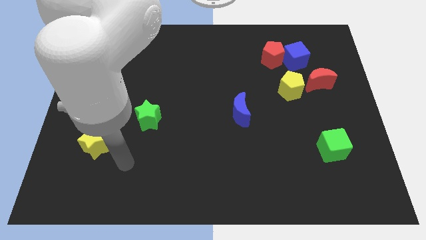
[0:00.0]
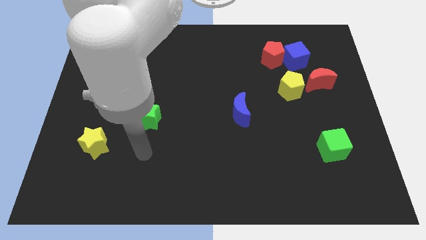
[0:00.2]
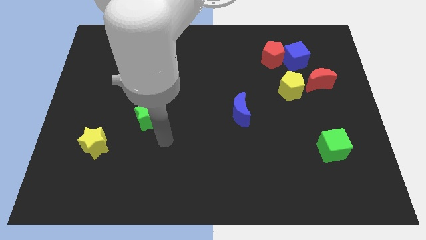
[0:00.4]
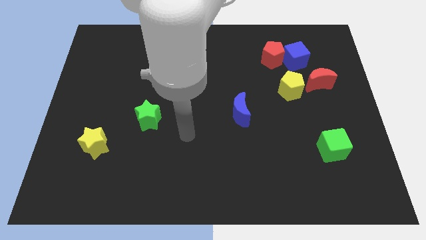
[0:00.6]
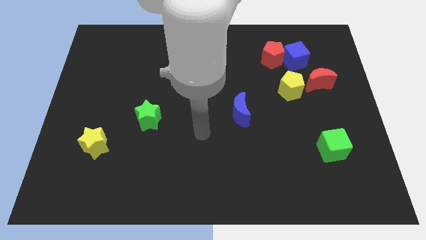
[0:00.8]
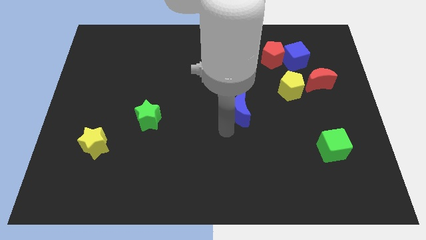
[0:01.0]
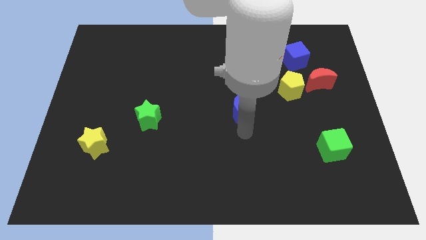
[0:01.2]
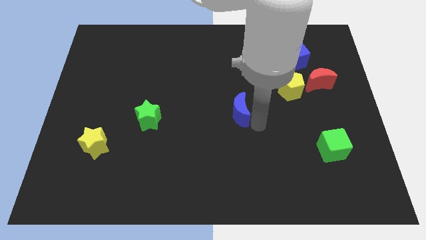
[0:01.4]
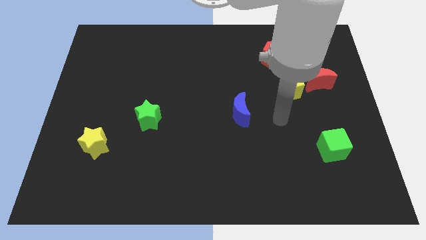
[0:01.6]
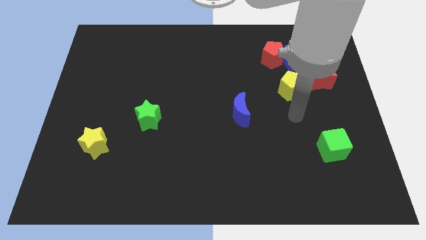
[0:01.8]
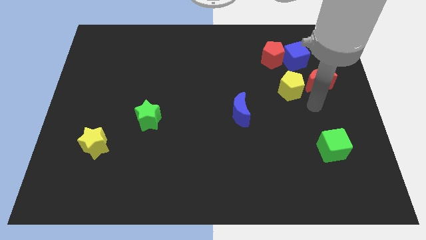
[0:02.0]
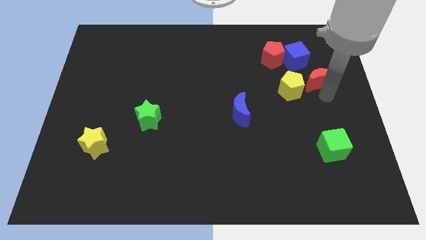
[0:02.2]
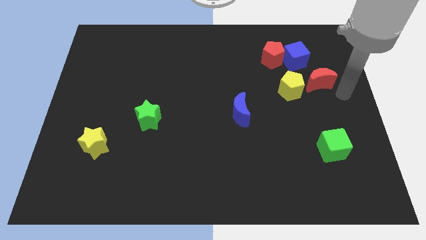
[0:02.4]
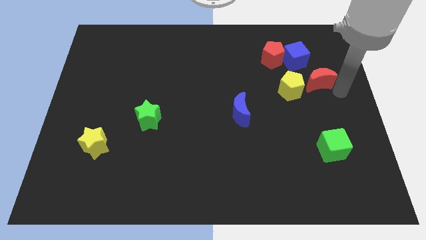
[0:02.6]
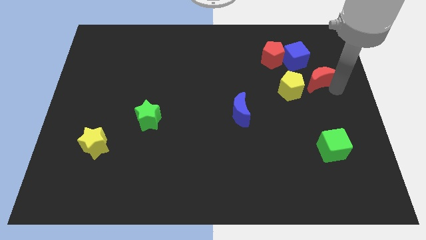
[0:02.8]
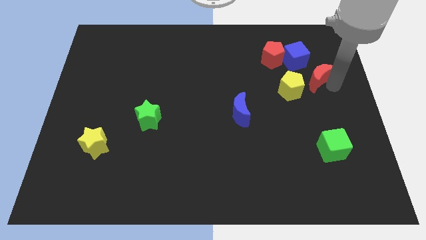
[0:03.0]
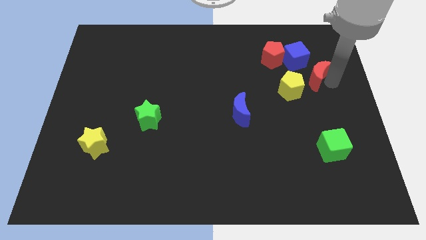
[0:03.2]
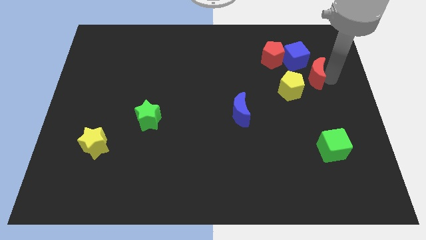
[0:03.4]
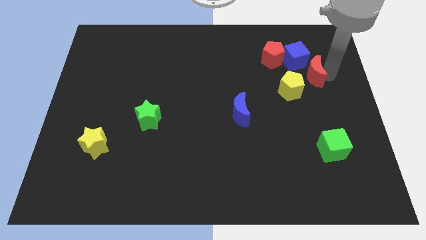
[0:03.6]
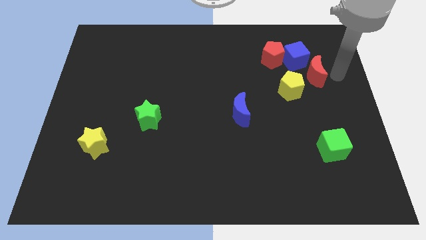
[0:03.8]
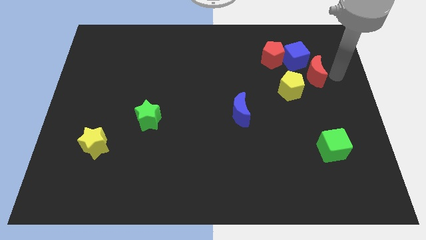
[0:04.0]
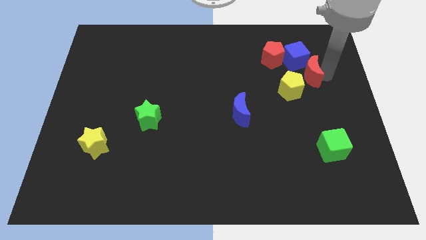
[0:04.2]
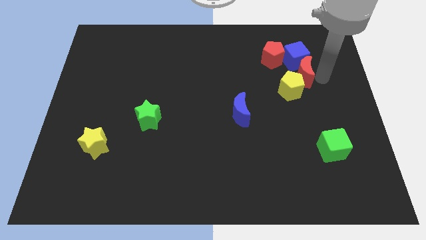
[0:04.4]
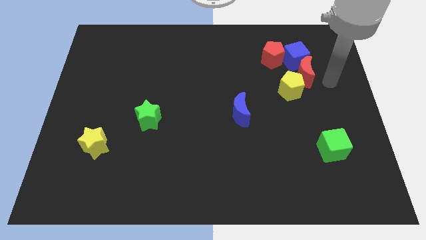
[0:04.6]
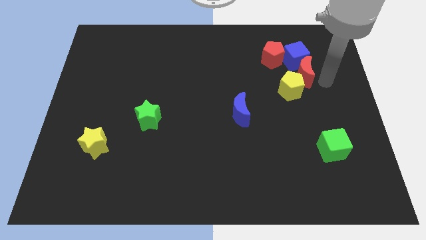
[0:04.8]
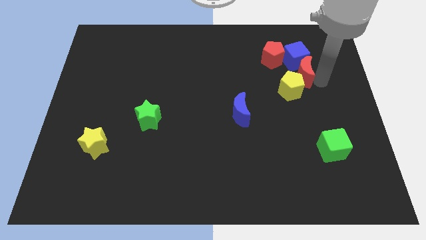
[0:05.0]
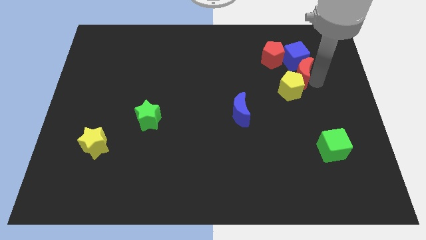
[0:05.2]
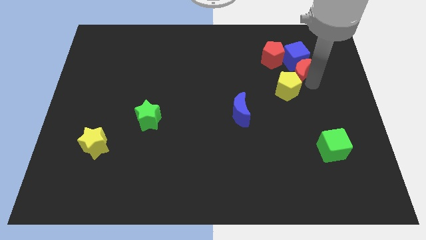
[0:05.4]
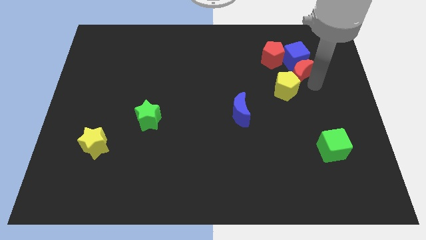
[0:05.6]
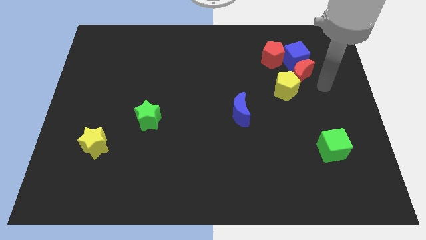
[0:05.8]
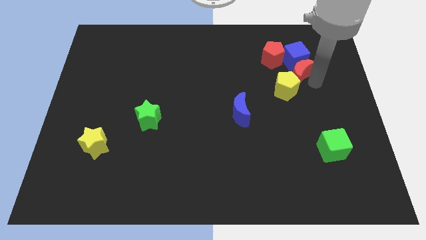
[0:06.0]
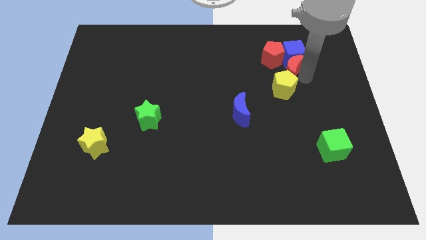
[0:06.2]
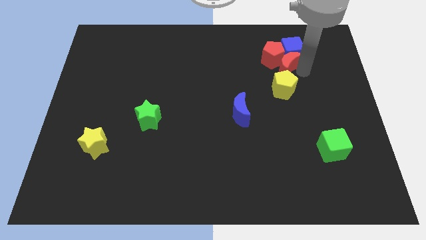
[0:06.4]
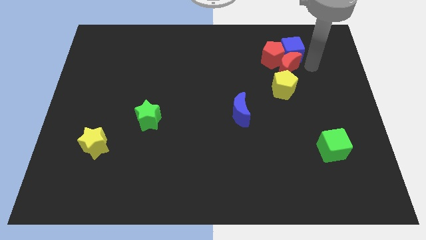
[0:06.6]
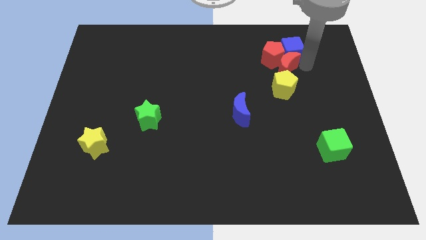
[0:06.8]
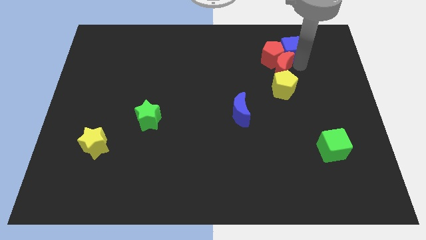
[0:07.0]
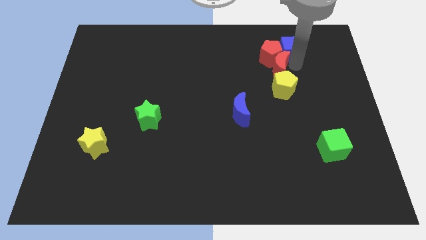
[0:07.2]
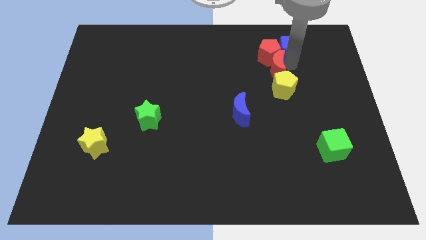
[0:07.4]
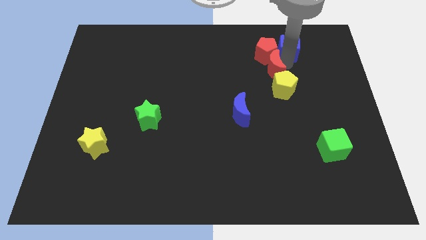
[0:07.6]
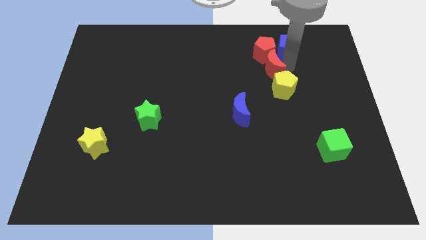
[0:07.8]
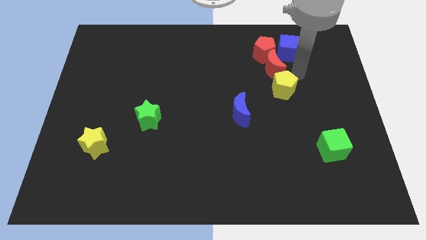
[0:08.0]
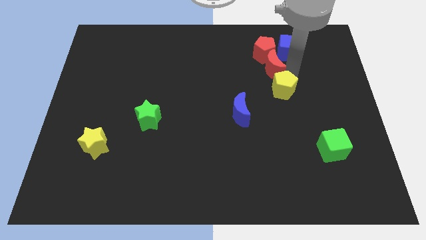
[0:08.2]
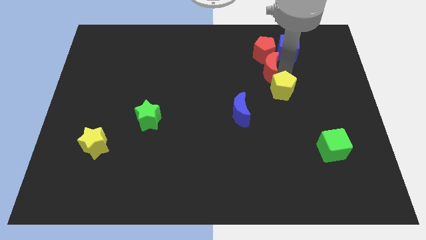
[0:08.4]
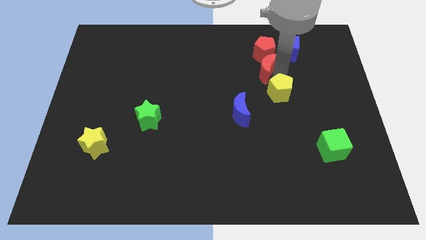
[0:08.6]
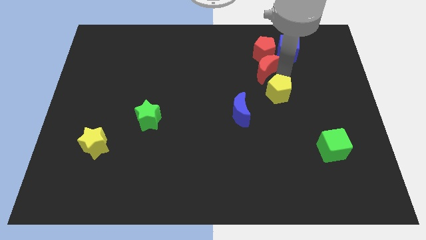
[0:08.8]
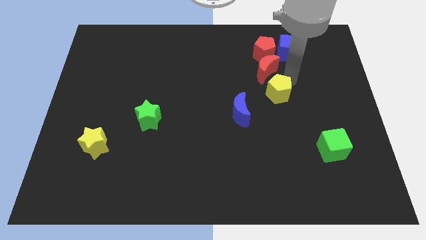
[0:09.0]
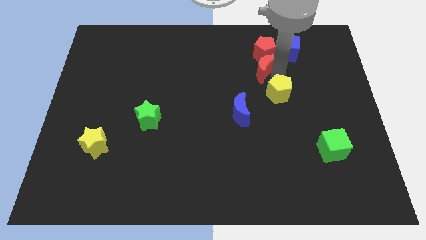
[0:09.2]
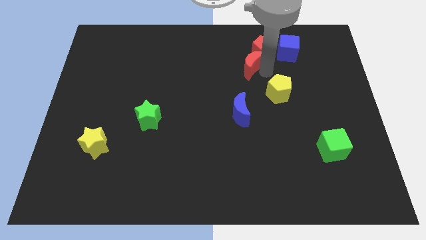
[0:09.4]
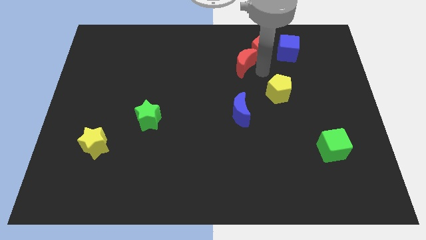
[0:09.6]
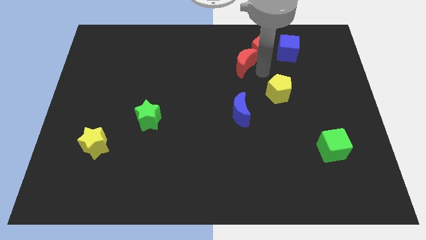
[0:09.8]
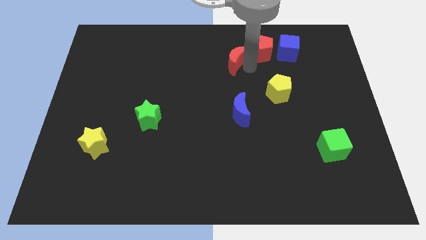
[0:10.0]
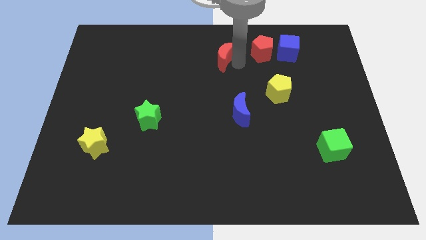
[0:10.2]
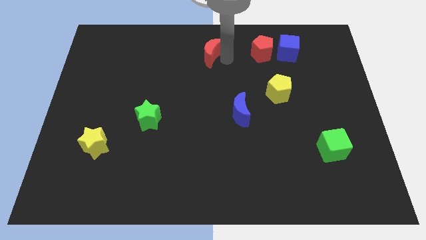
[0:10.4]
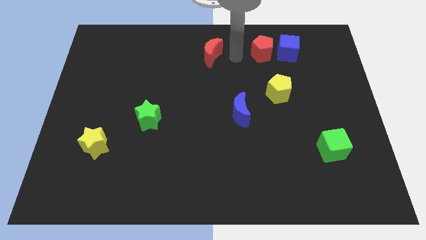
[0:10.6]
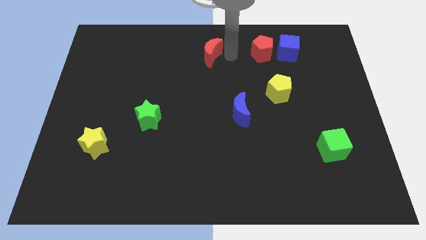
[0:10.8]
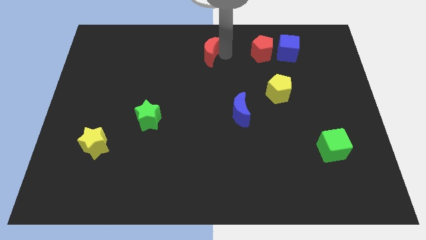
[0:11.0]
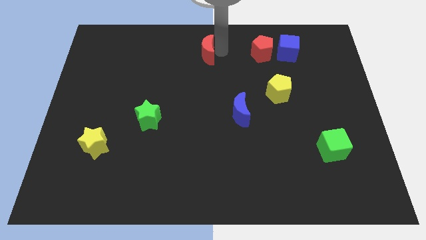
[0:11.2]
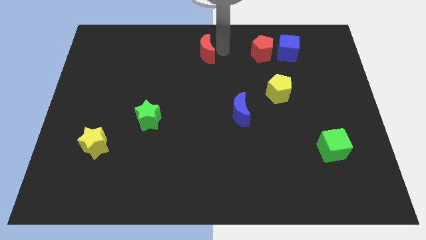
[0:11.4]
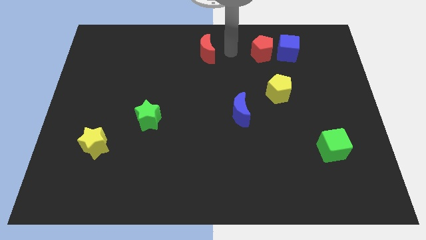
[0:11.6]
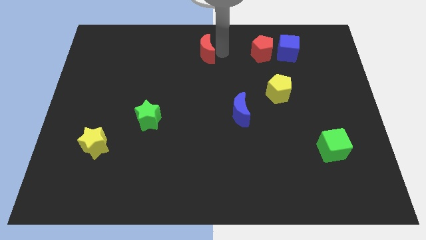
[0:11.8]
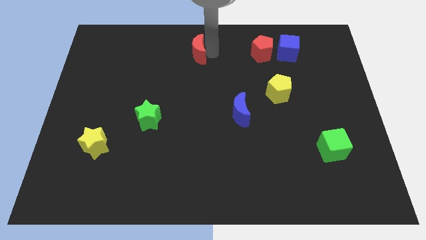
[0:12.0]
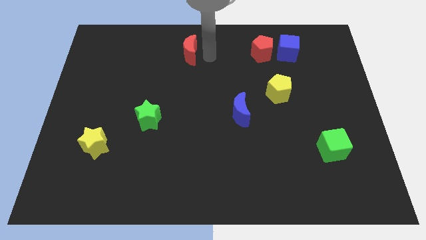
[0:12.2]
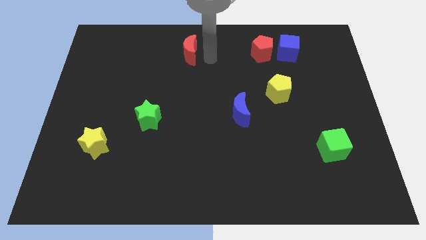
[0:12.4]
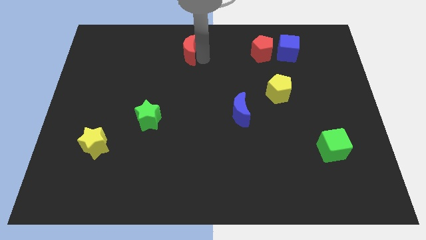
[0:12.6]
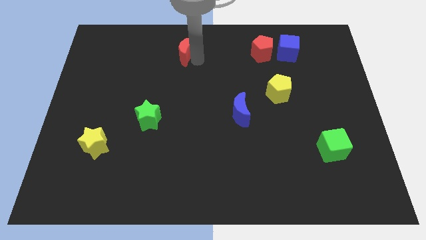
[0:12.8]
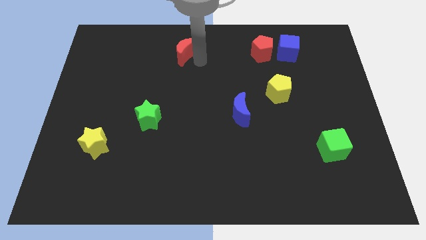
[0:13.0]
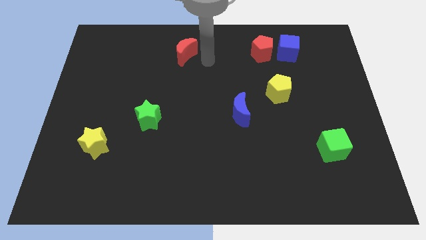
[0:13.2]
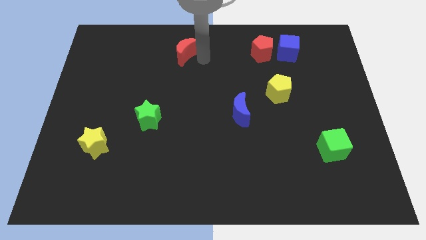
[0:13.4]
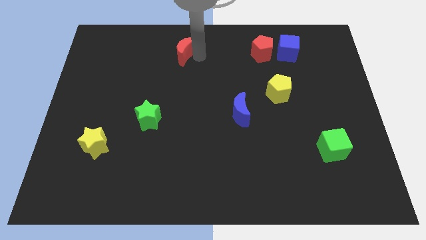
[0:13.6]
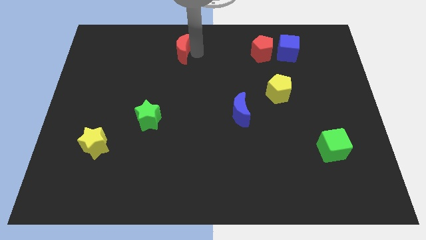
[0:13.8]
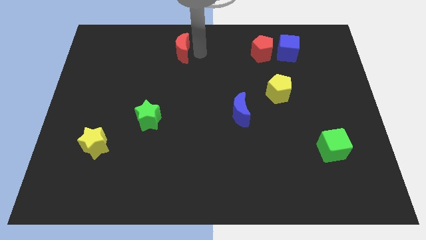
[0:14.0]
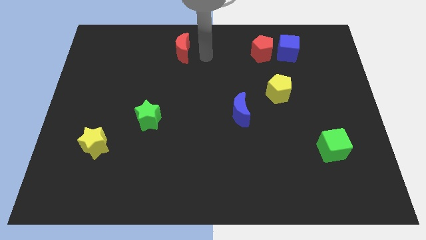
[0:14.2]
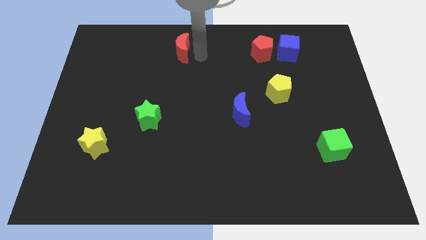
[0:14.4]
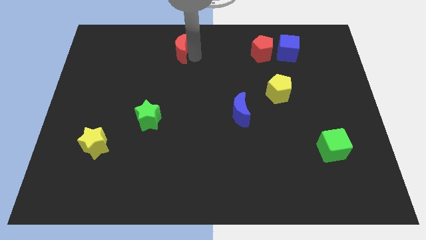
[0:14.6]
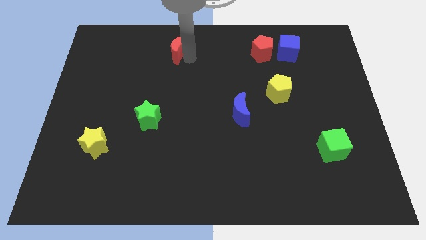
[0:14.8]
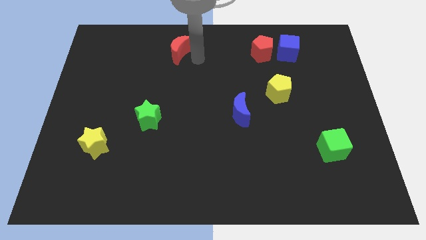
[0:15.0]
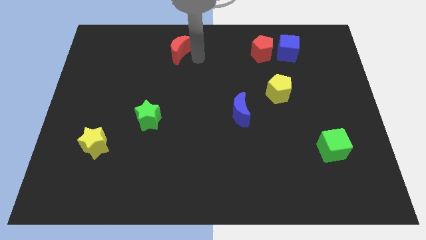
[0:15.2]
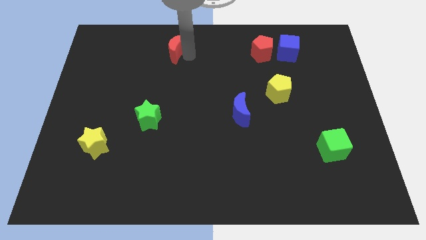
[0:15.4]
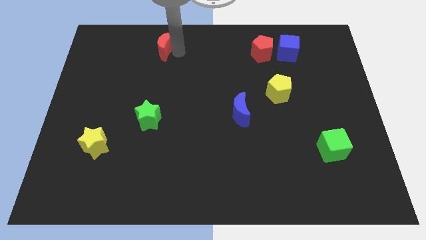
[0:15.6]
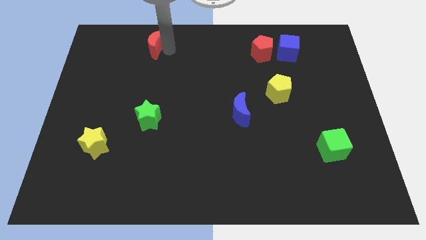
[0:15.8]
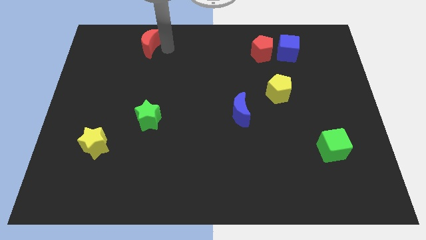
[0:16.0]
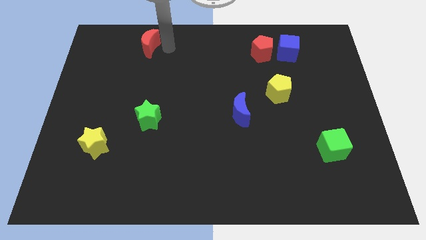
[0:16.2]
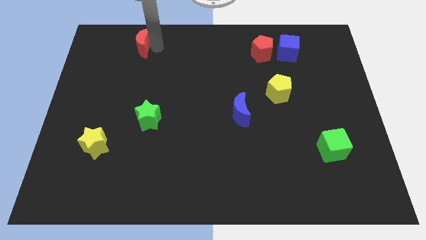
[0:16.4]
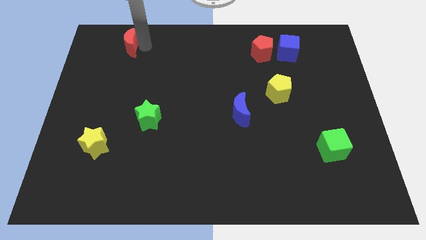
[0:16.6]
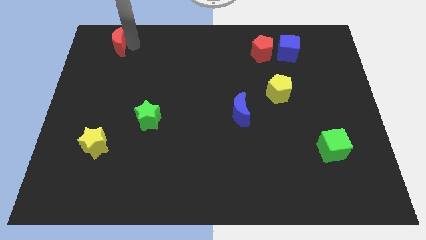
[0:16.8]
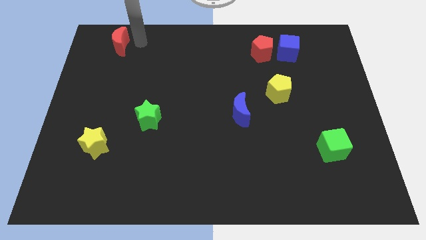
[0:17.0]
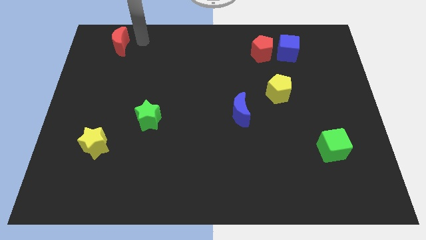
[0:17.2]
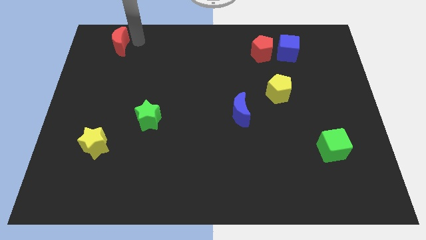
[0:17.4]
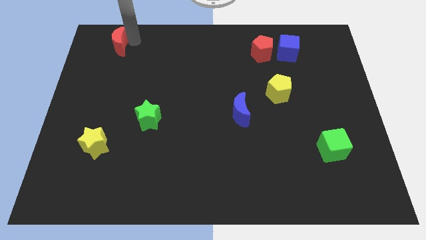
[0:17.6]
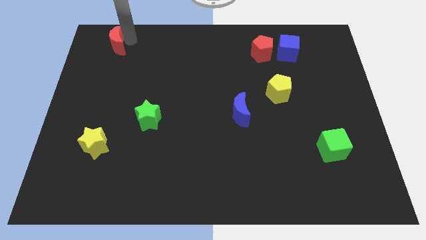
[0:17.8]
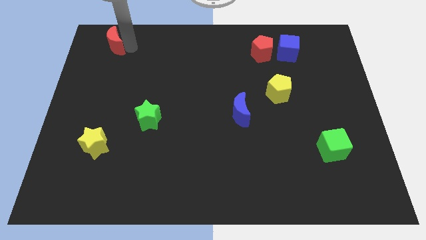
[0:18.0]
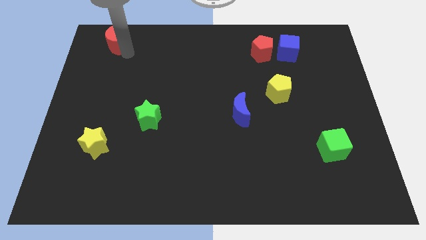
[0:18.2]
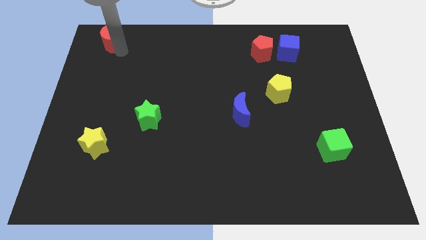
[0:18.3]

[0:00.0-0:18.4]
push the red moon to the top left
